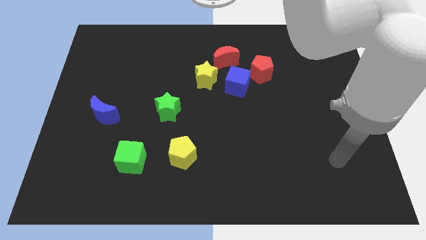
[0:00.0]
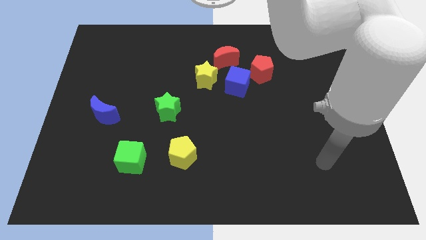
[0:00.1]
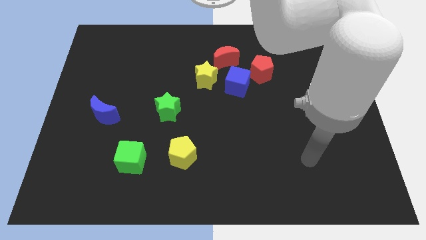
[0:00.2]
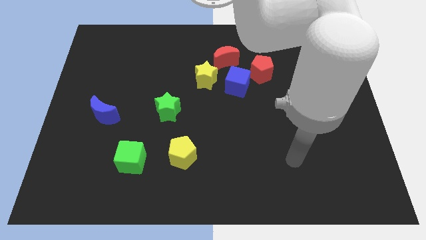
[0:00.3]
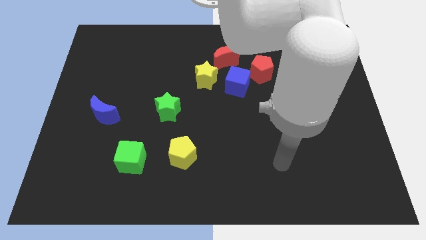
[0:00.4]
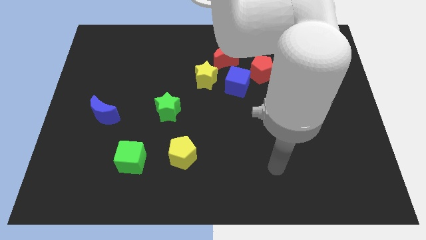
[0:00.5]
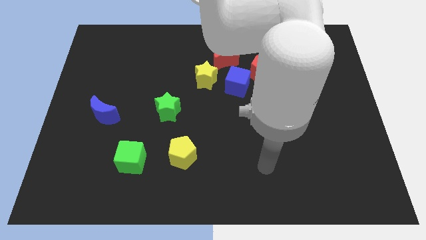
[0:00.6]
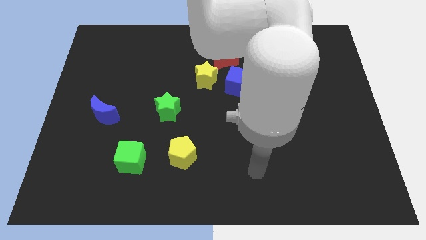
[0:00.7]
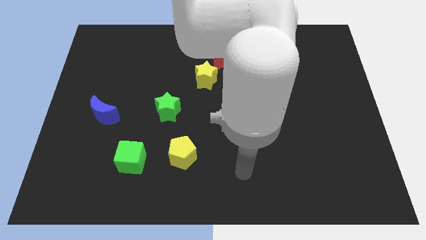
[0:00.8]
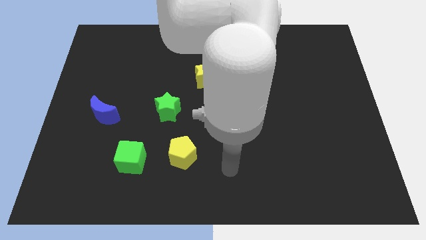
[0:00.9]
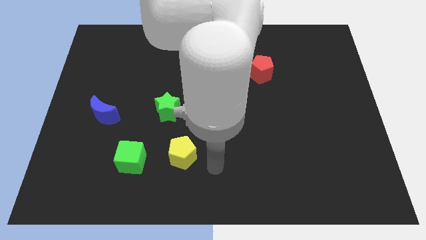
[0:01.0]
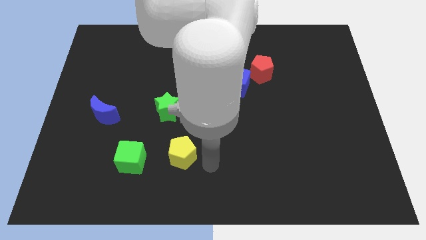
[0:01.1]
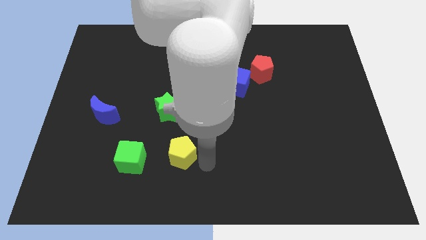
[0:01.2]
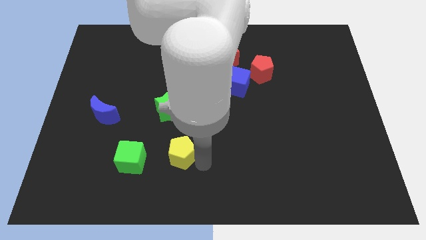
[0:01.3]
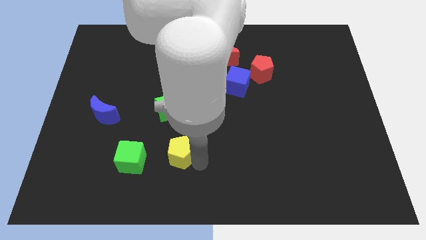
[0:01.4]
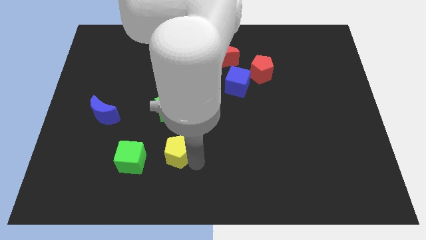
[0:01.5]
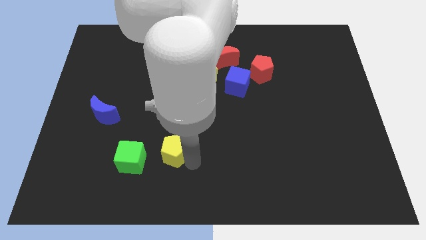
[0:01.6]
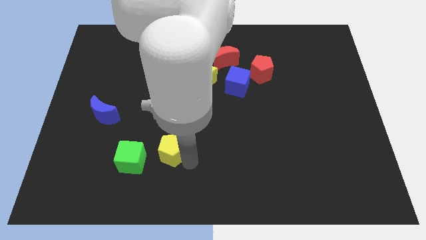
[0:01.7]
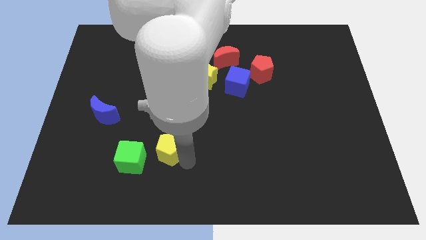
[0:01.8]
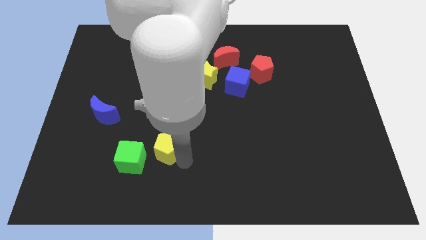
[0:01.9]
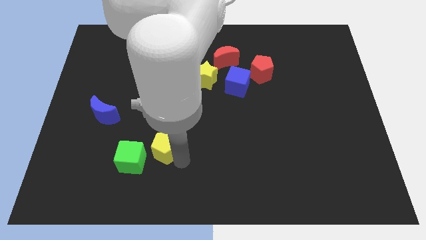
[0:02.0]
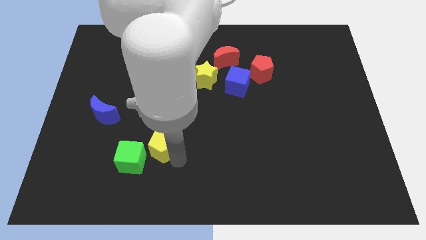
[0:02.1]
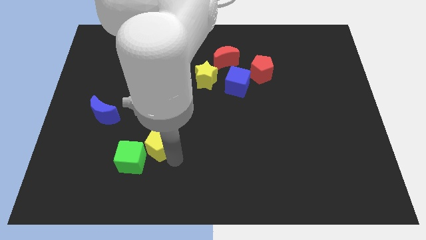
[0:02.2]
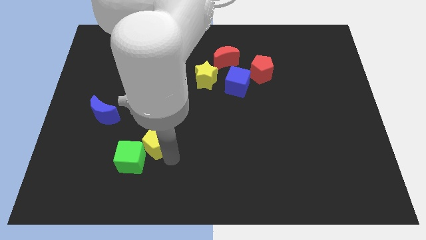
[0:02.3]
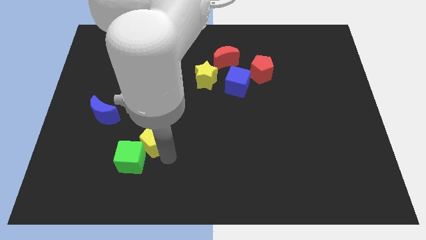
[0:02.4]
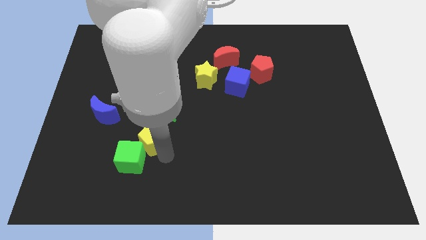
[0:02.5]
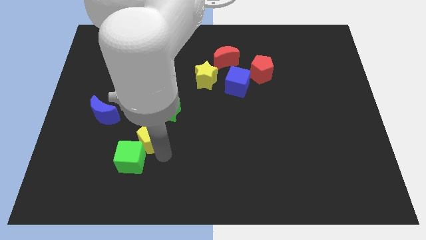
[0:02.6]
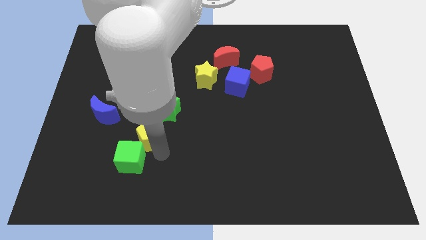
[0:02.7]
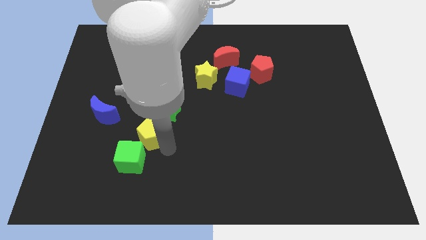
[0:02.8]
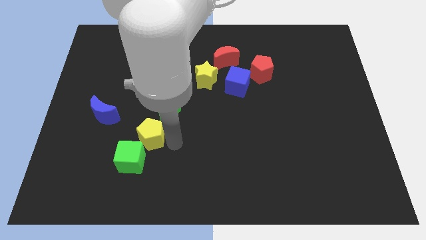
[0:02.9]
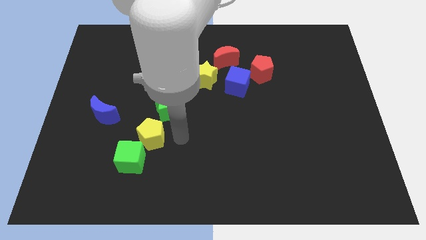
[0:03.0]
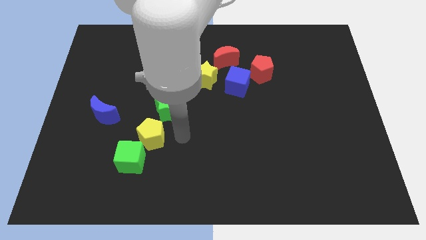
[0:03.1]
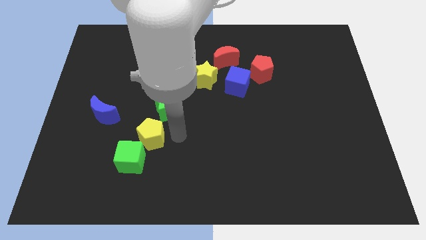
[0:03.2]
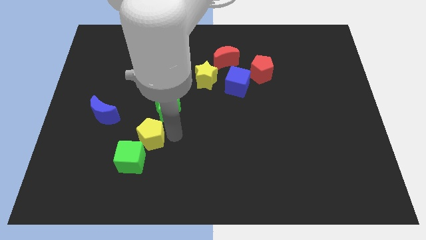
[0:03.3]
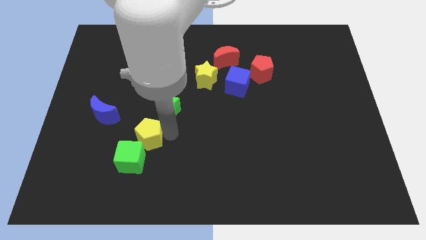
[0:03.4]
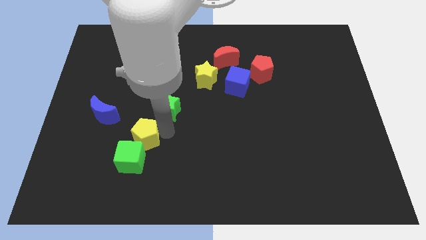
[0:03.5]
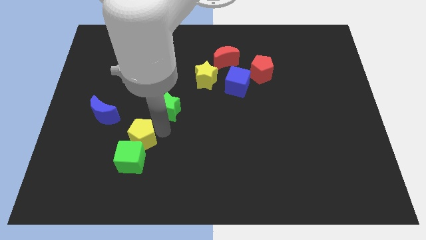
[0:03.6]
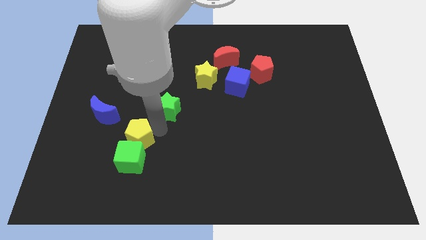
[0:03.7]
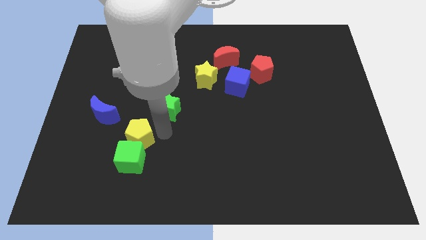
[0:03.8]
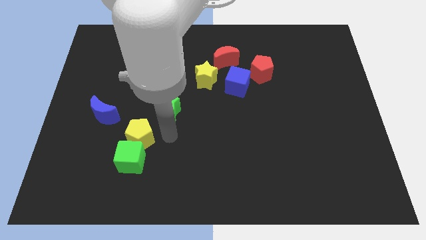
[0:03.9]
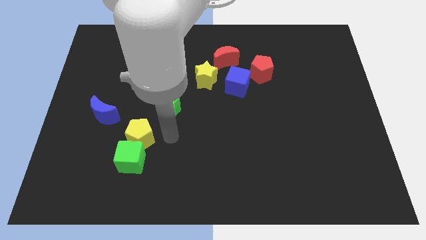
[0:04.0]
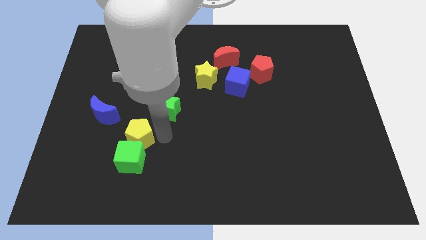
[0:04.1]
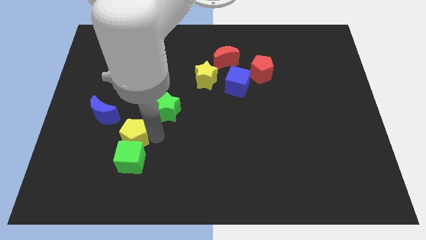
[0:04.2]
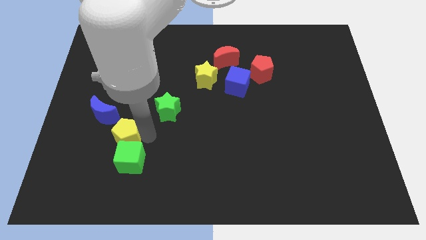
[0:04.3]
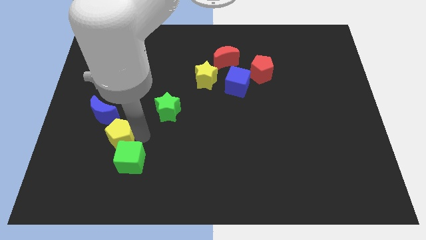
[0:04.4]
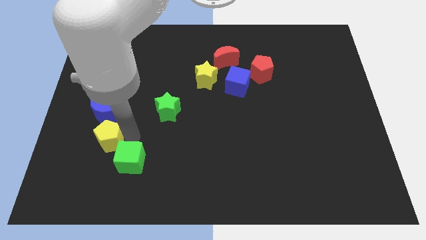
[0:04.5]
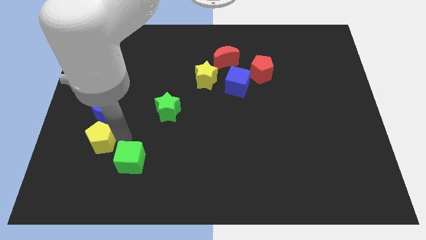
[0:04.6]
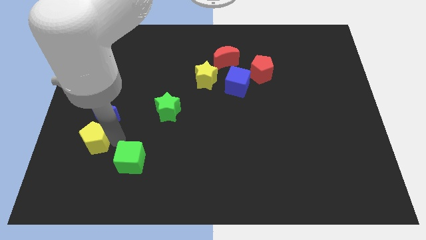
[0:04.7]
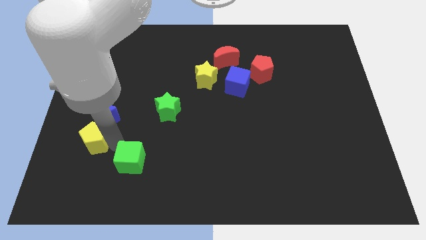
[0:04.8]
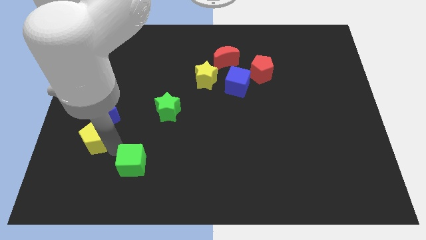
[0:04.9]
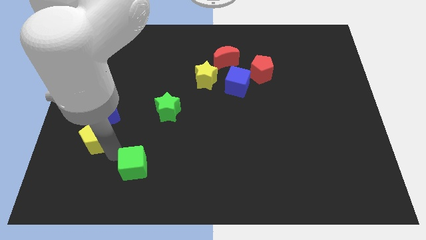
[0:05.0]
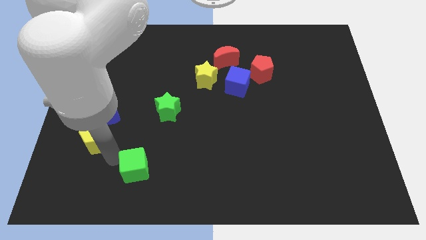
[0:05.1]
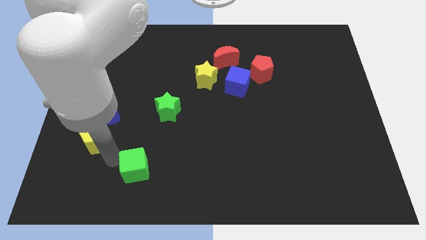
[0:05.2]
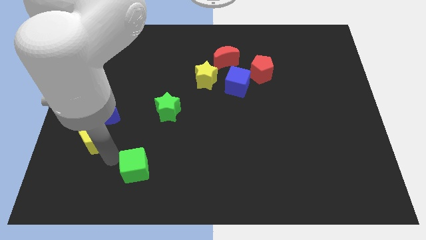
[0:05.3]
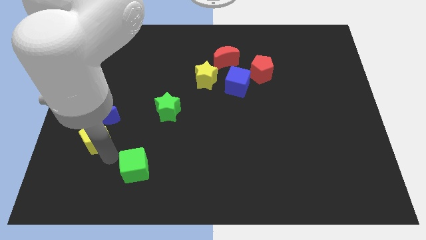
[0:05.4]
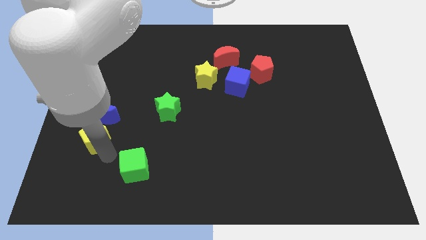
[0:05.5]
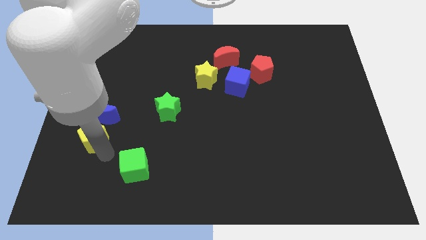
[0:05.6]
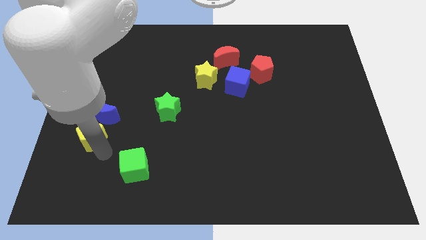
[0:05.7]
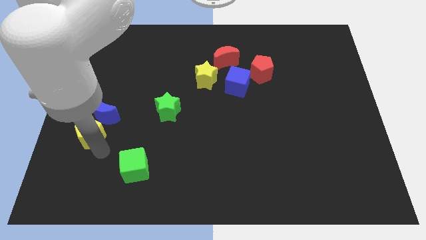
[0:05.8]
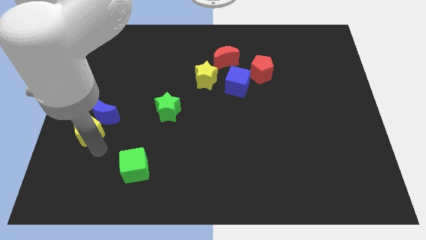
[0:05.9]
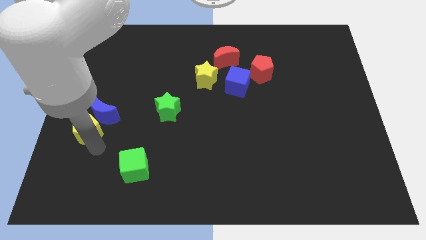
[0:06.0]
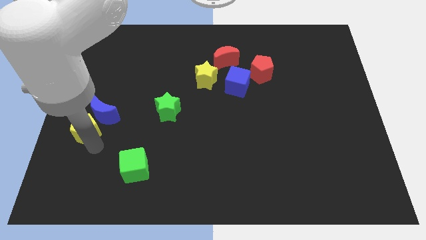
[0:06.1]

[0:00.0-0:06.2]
slide the yellow pentagon to the center left

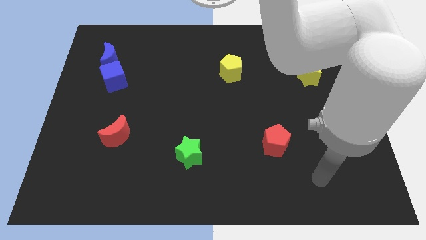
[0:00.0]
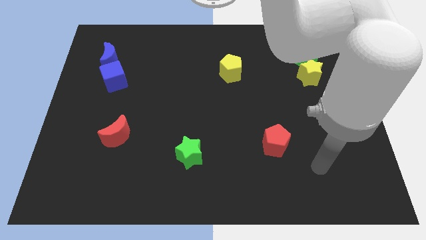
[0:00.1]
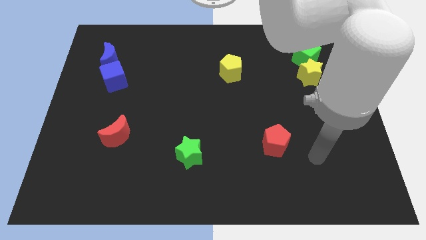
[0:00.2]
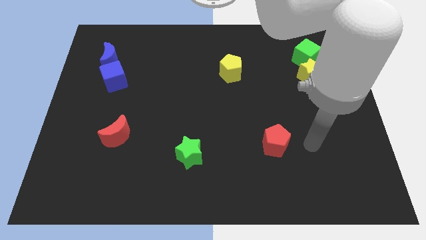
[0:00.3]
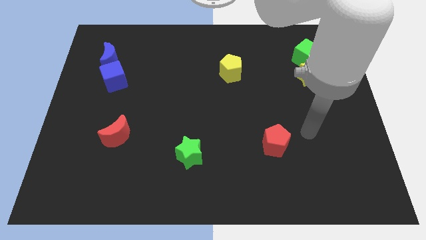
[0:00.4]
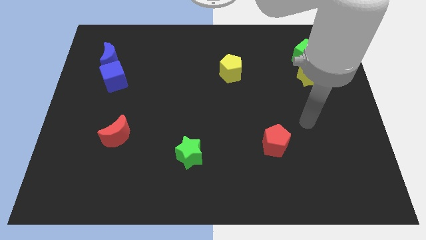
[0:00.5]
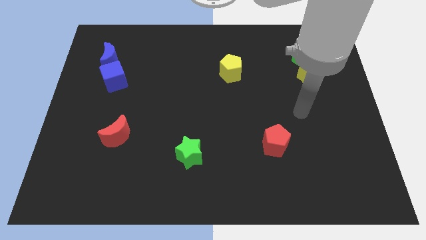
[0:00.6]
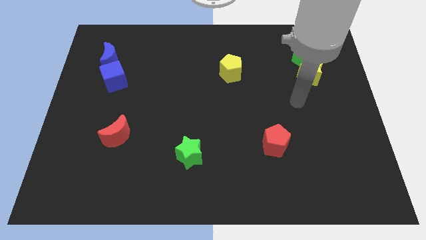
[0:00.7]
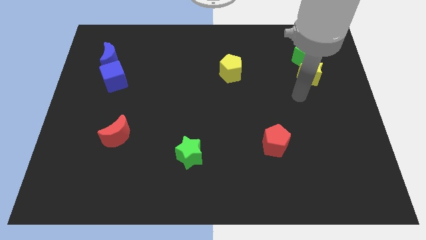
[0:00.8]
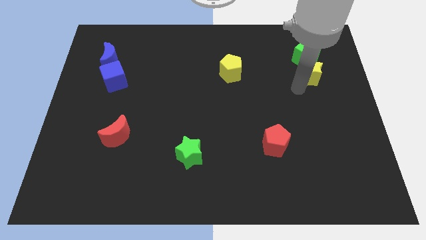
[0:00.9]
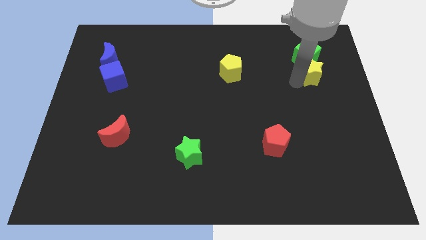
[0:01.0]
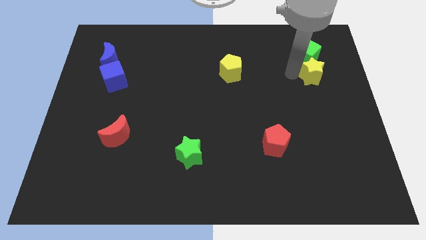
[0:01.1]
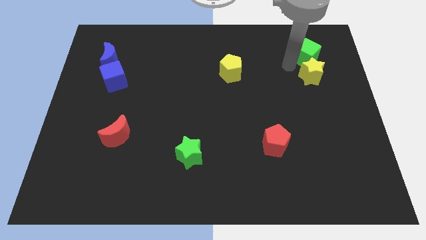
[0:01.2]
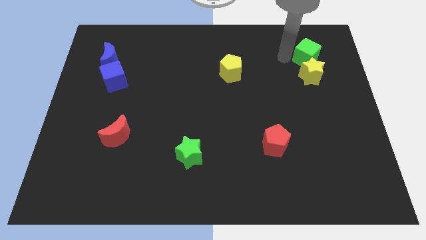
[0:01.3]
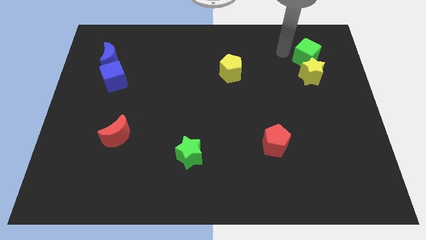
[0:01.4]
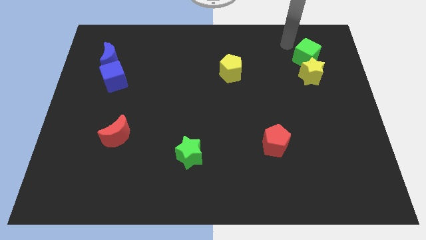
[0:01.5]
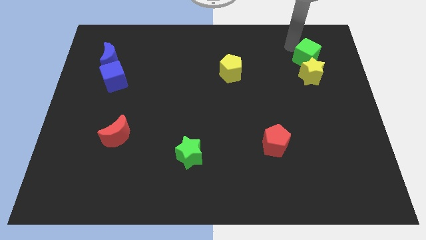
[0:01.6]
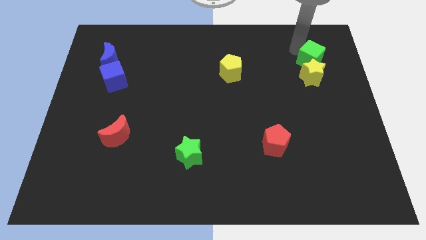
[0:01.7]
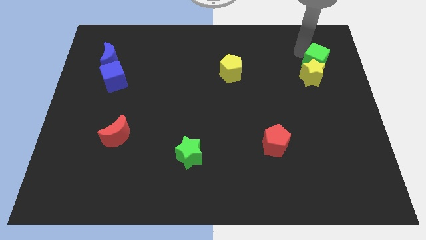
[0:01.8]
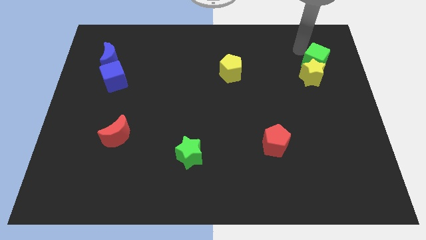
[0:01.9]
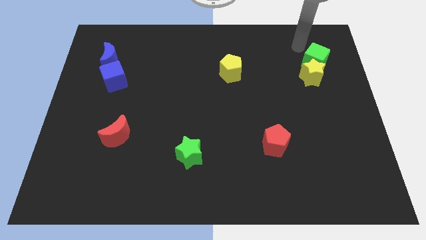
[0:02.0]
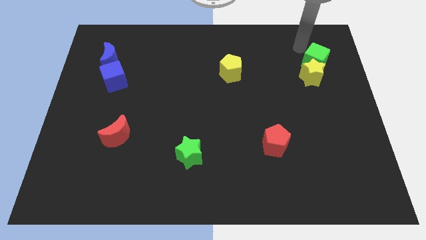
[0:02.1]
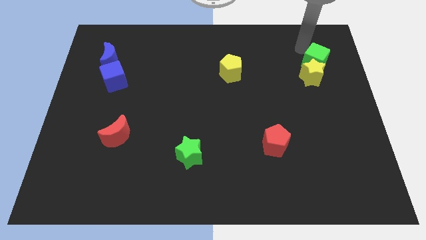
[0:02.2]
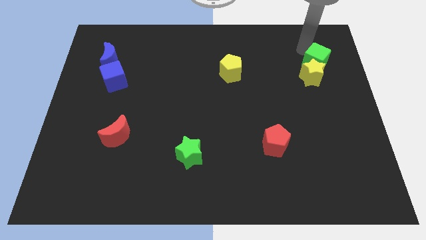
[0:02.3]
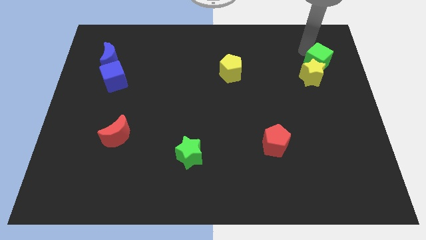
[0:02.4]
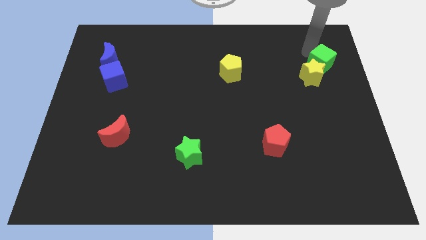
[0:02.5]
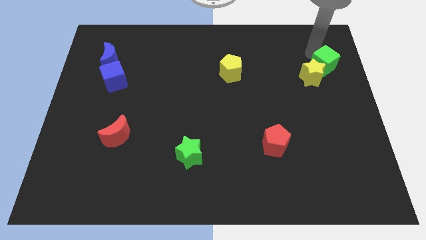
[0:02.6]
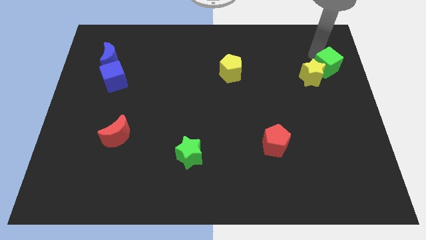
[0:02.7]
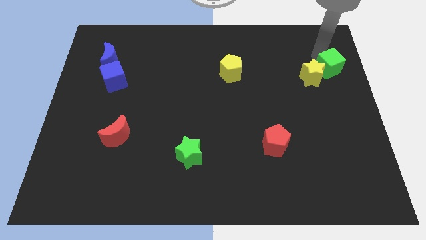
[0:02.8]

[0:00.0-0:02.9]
push the green cube to the right side of the board
